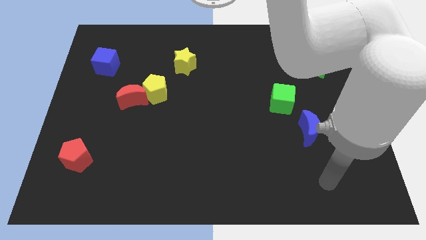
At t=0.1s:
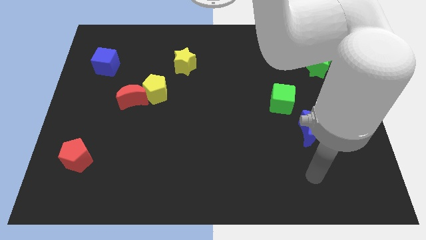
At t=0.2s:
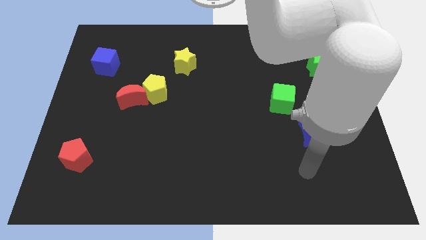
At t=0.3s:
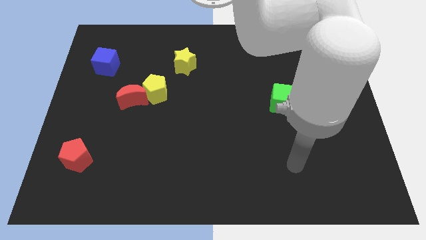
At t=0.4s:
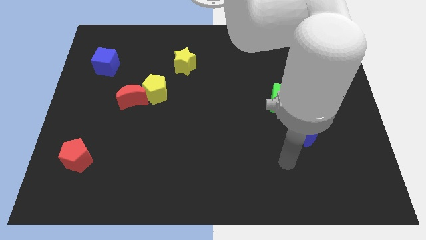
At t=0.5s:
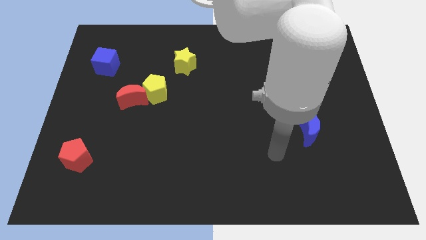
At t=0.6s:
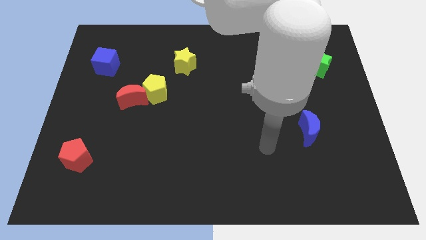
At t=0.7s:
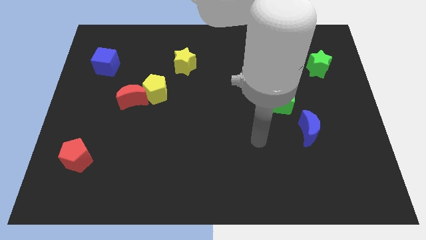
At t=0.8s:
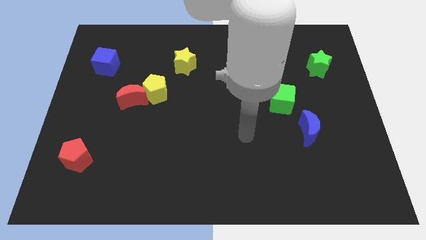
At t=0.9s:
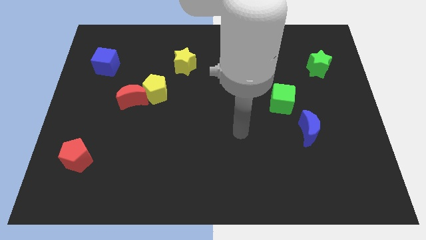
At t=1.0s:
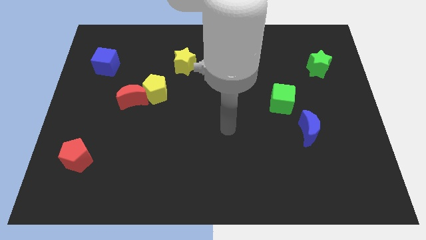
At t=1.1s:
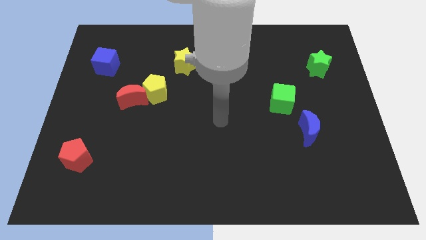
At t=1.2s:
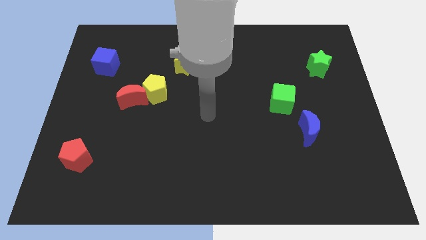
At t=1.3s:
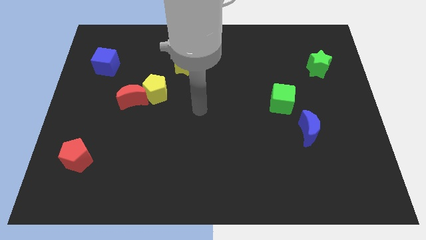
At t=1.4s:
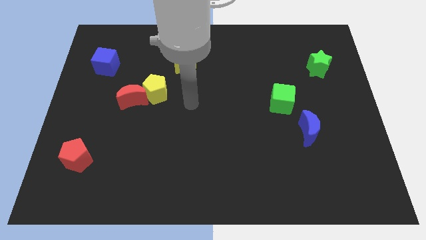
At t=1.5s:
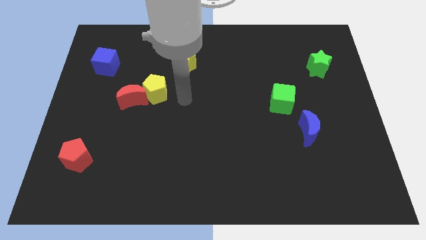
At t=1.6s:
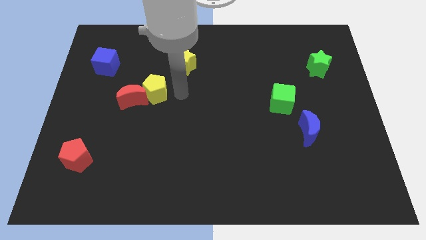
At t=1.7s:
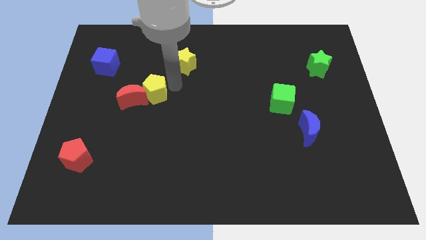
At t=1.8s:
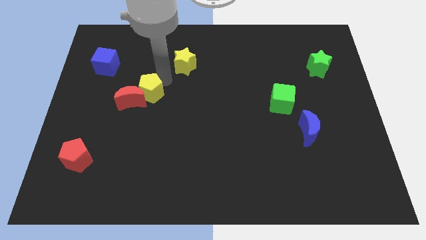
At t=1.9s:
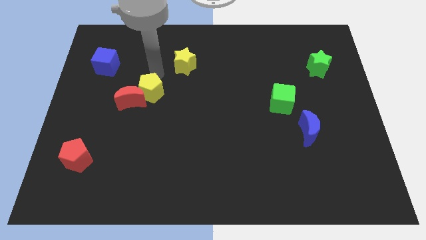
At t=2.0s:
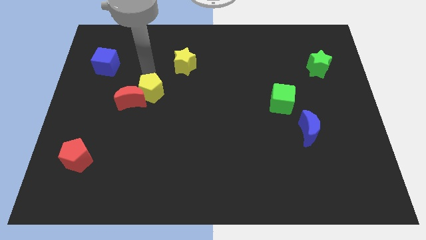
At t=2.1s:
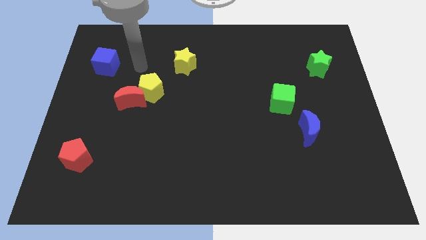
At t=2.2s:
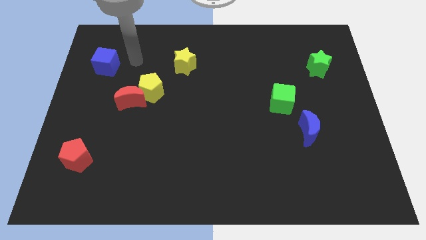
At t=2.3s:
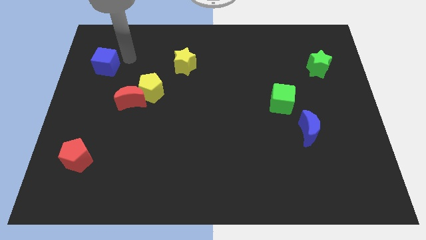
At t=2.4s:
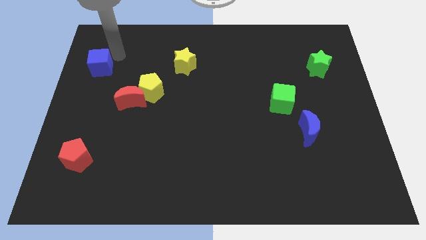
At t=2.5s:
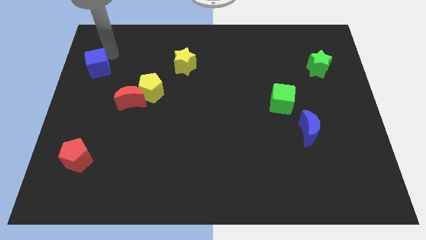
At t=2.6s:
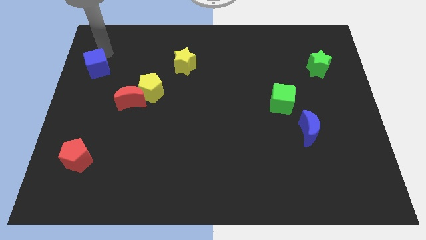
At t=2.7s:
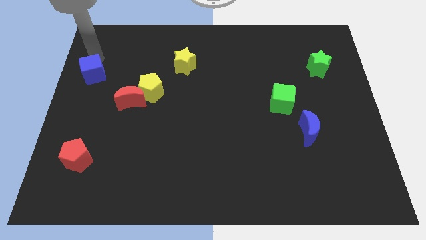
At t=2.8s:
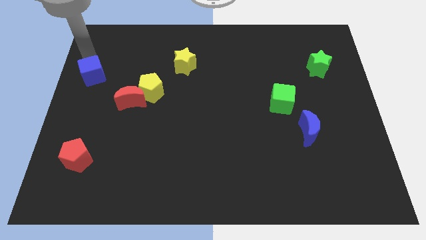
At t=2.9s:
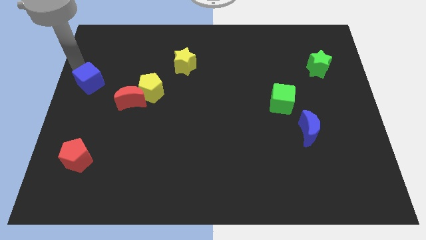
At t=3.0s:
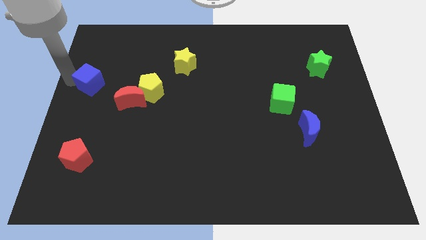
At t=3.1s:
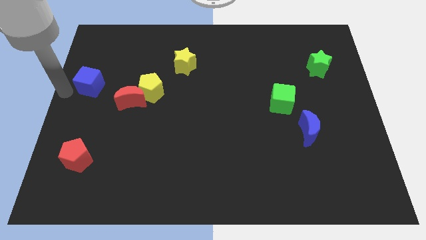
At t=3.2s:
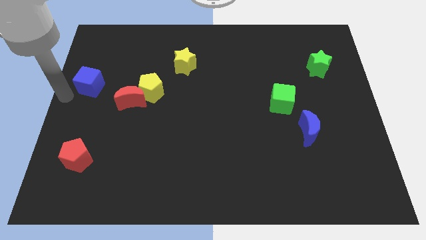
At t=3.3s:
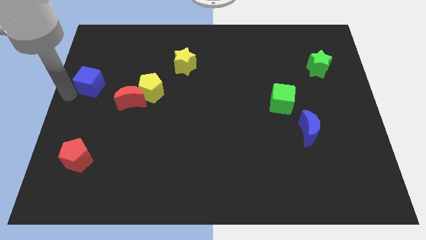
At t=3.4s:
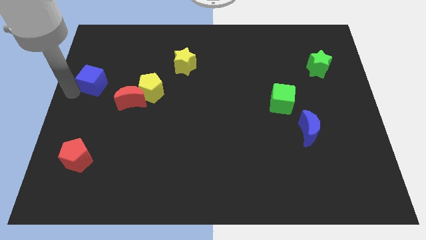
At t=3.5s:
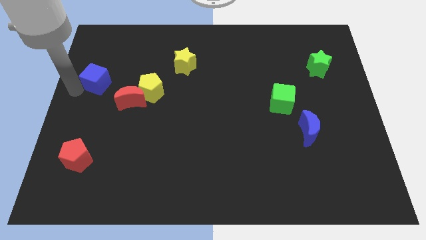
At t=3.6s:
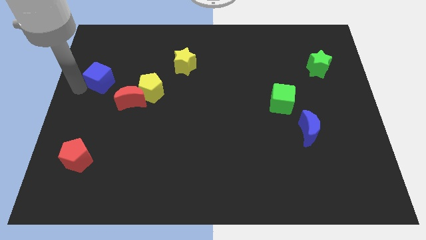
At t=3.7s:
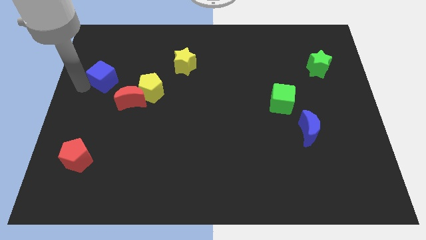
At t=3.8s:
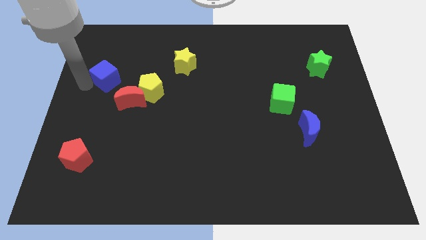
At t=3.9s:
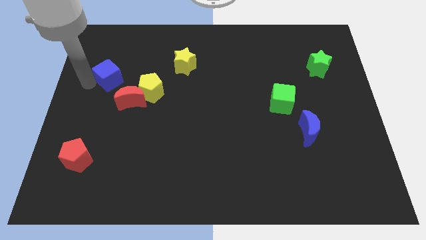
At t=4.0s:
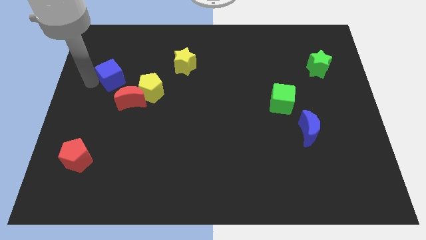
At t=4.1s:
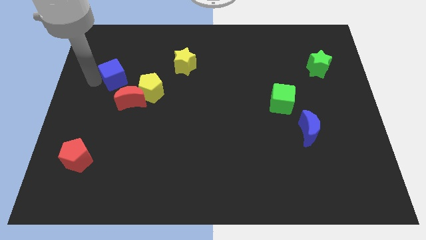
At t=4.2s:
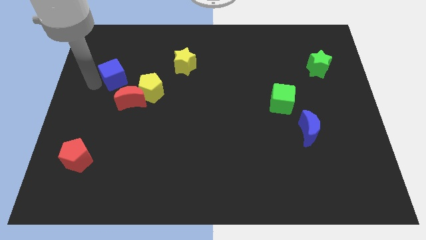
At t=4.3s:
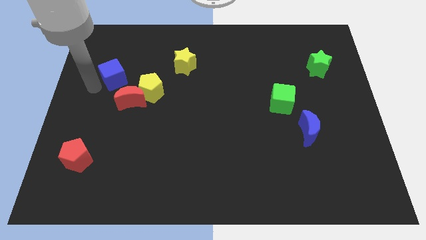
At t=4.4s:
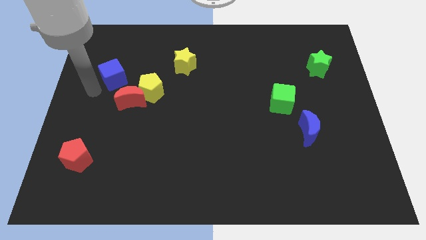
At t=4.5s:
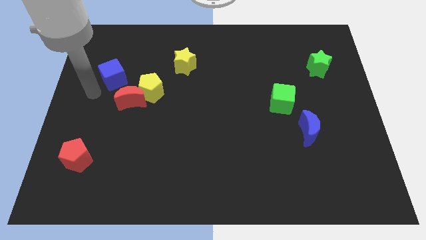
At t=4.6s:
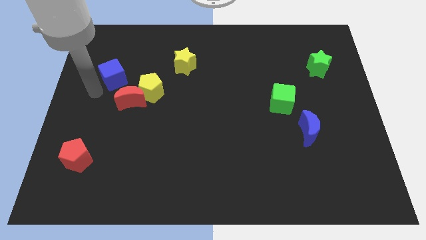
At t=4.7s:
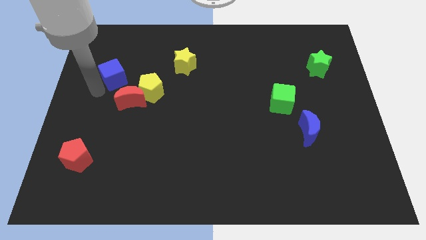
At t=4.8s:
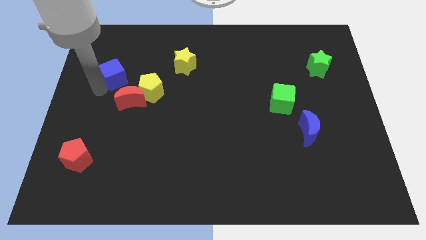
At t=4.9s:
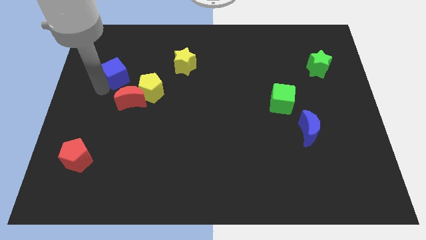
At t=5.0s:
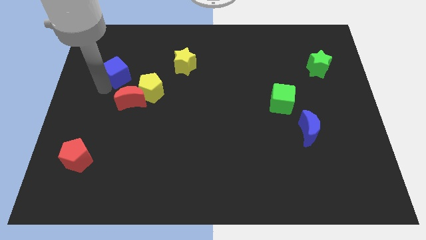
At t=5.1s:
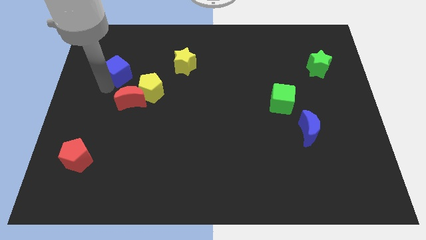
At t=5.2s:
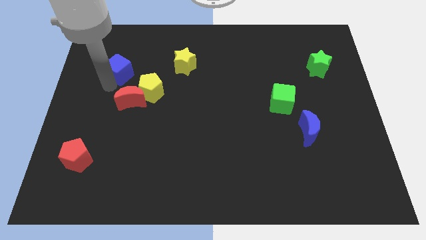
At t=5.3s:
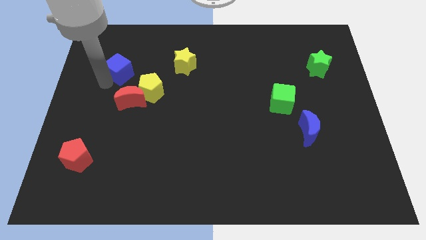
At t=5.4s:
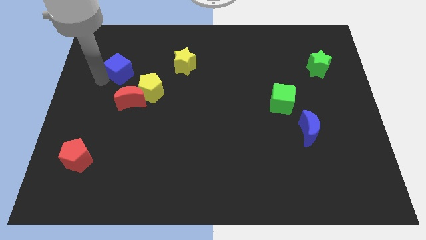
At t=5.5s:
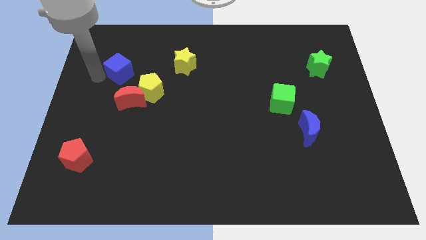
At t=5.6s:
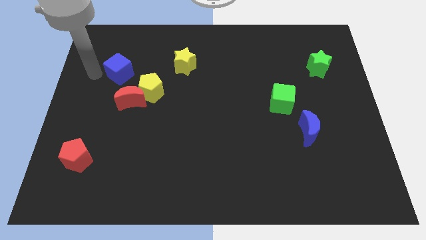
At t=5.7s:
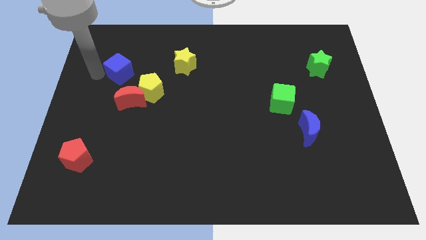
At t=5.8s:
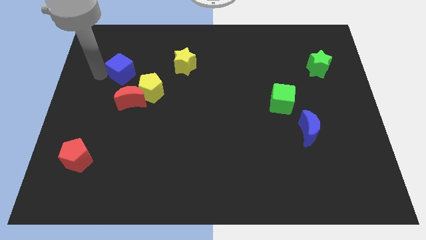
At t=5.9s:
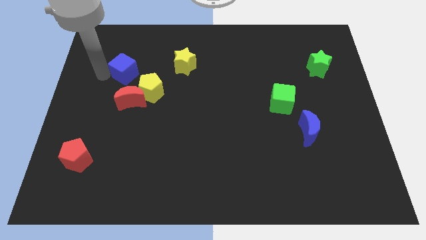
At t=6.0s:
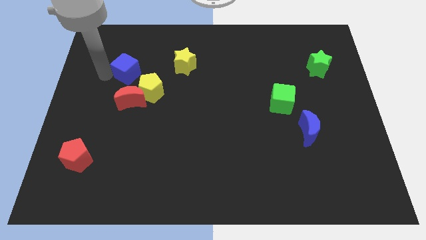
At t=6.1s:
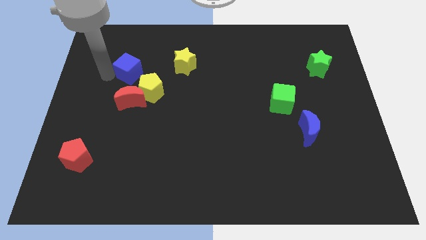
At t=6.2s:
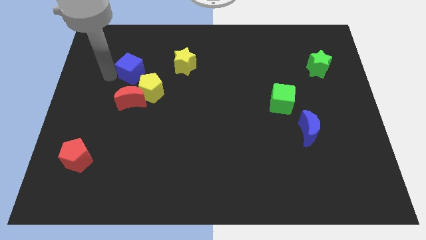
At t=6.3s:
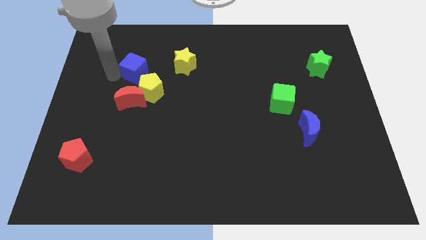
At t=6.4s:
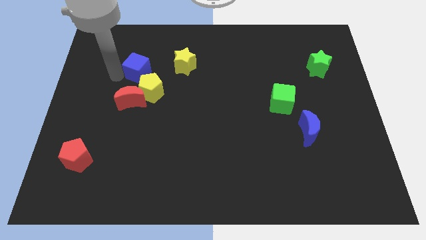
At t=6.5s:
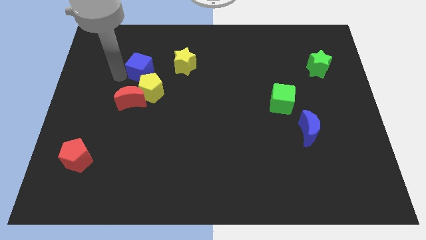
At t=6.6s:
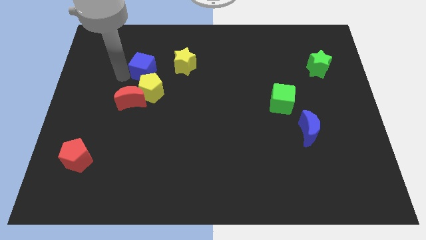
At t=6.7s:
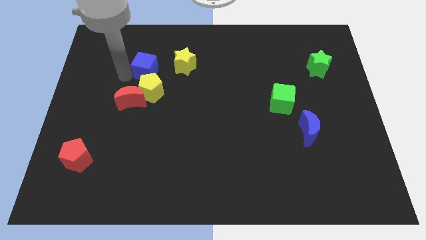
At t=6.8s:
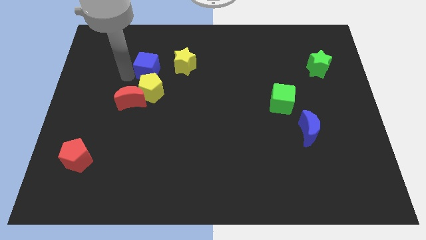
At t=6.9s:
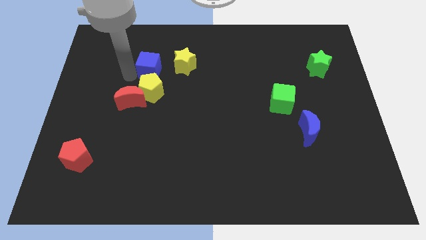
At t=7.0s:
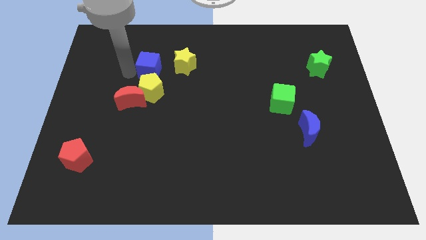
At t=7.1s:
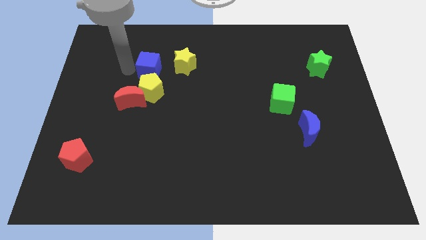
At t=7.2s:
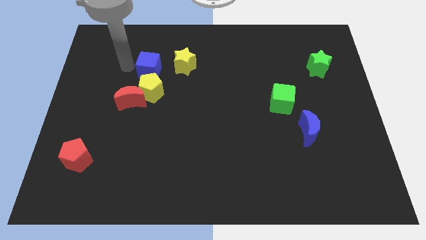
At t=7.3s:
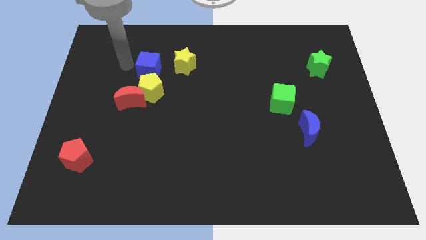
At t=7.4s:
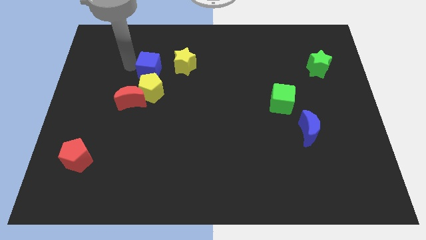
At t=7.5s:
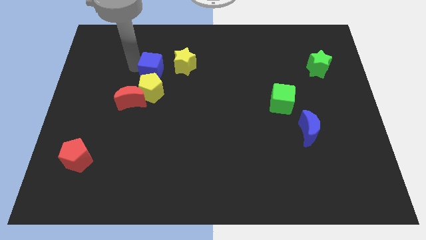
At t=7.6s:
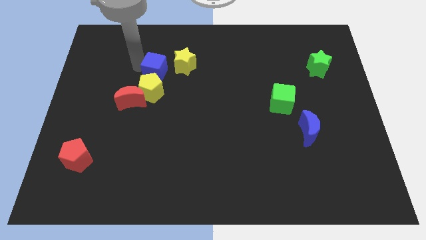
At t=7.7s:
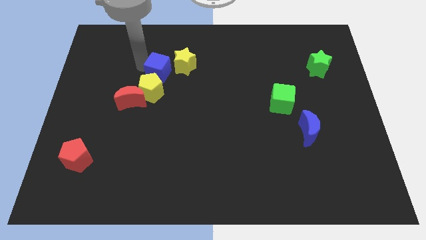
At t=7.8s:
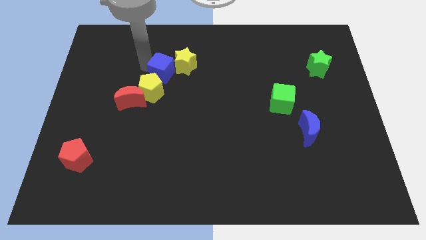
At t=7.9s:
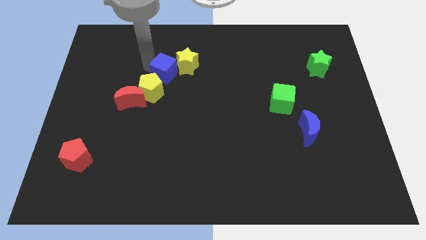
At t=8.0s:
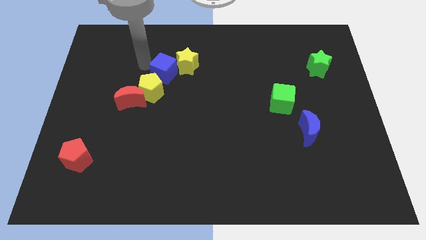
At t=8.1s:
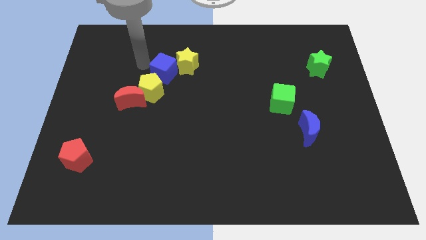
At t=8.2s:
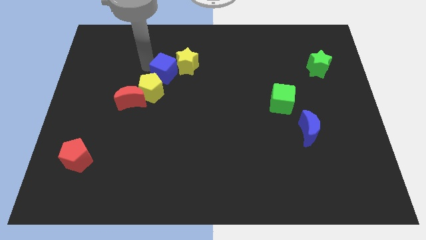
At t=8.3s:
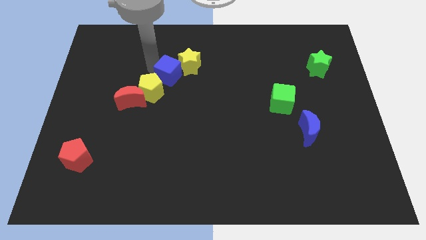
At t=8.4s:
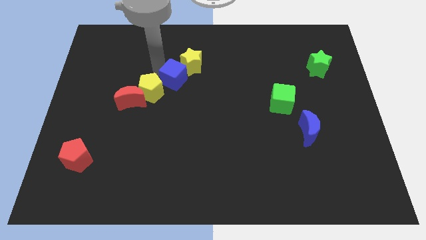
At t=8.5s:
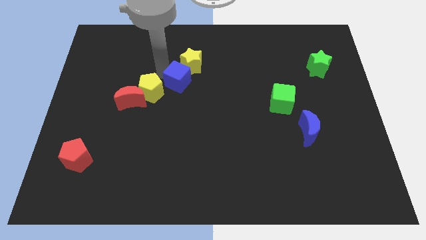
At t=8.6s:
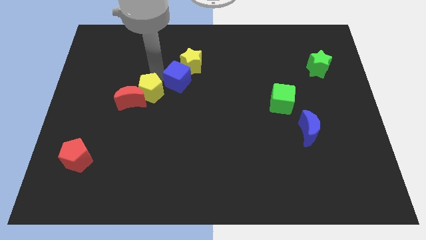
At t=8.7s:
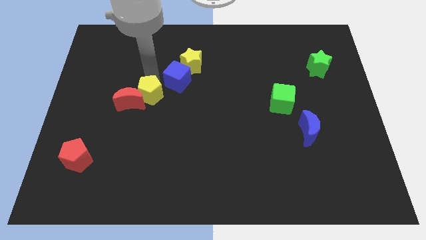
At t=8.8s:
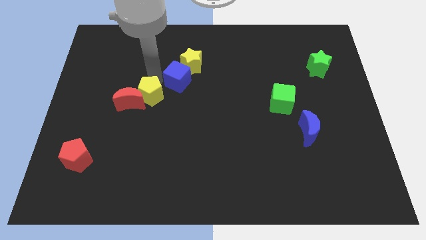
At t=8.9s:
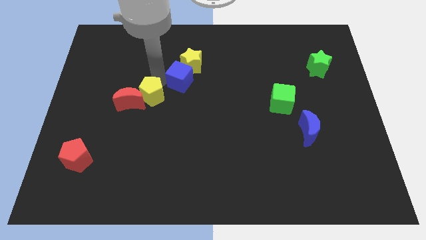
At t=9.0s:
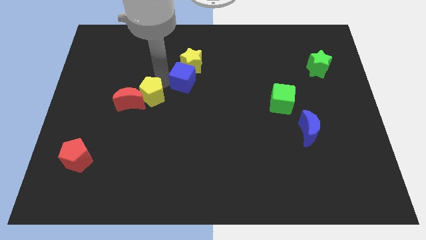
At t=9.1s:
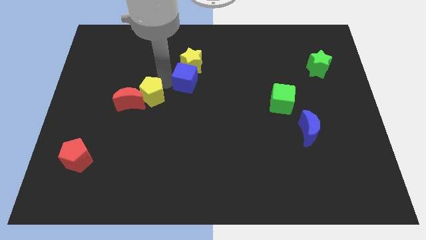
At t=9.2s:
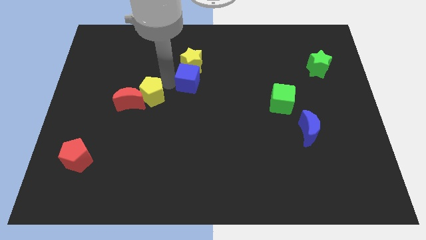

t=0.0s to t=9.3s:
move the blue cube diagonally down and to the right of the yellow star
